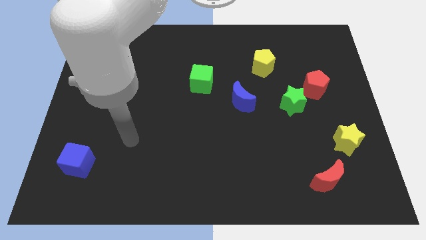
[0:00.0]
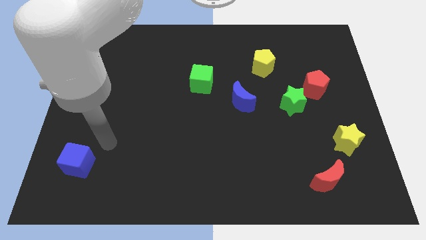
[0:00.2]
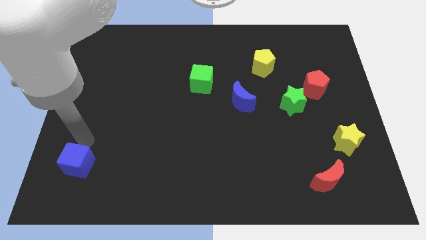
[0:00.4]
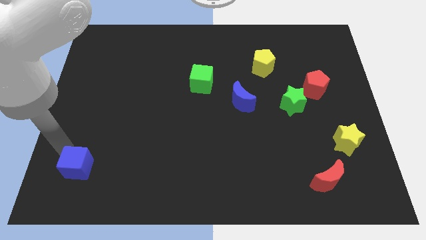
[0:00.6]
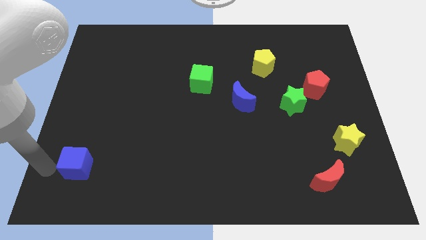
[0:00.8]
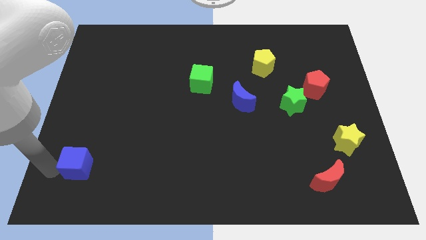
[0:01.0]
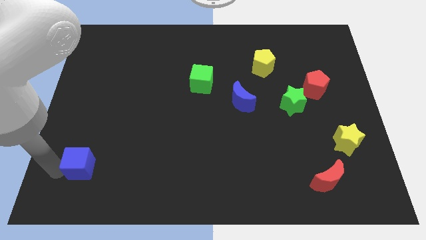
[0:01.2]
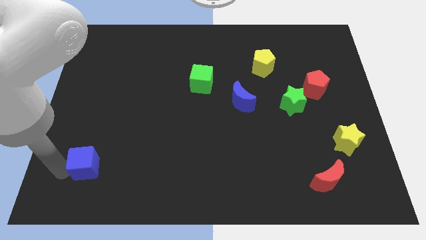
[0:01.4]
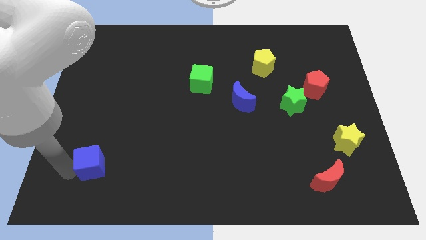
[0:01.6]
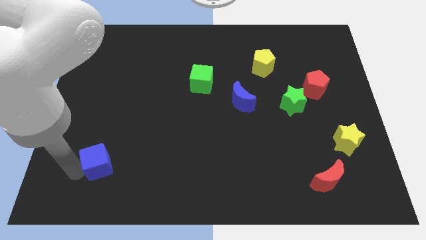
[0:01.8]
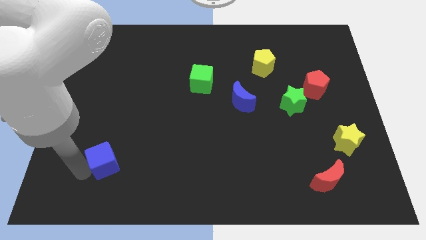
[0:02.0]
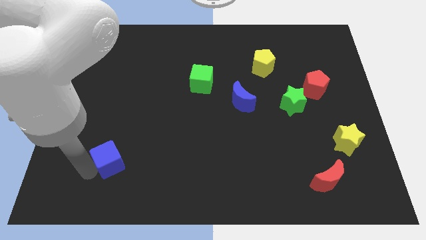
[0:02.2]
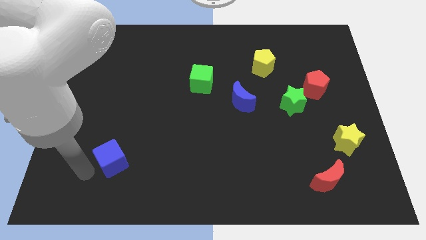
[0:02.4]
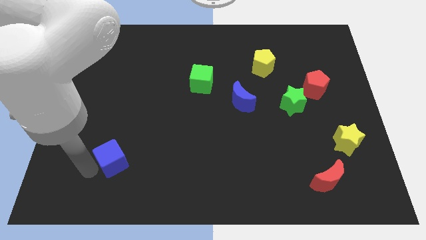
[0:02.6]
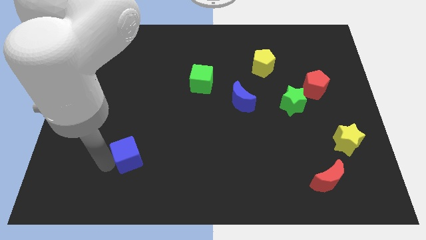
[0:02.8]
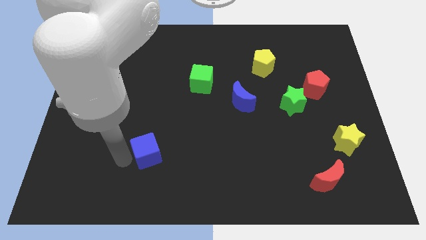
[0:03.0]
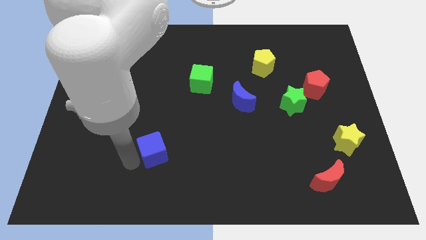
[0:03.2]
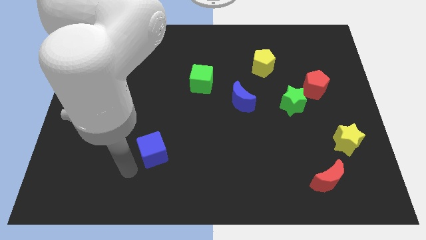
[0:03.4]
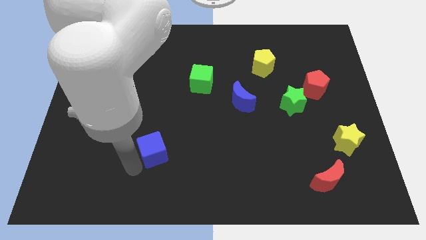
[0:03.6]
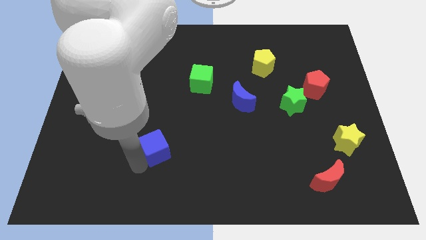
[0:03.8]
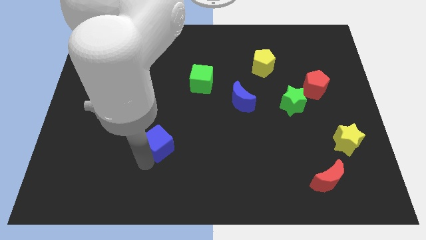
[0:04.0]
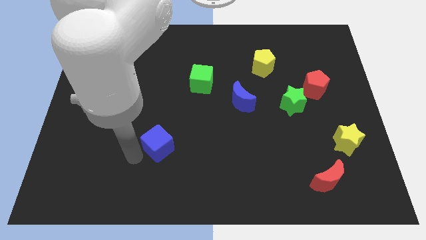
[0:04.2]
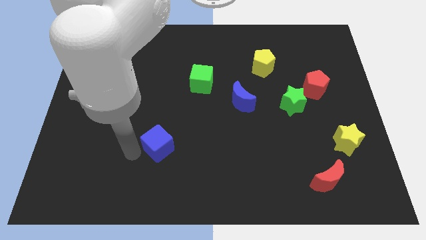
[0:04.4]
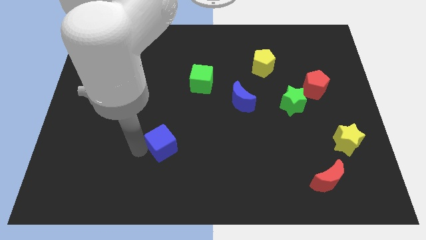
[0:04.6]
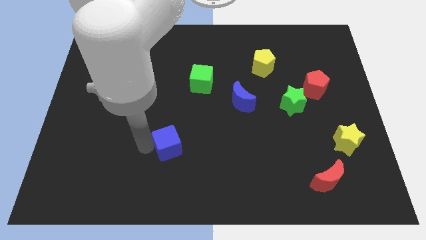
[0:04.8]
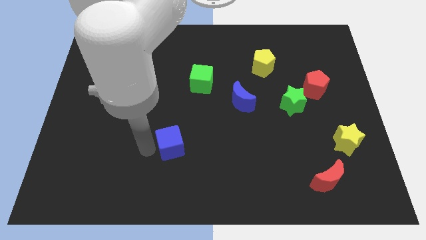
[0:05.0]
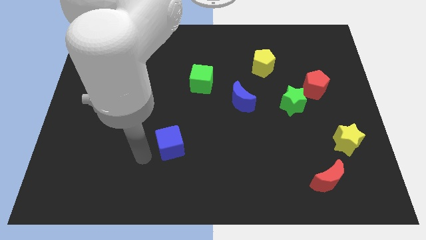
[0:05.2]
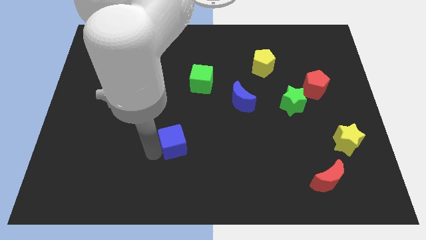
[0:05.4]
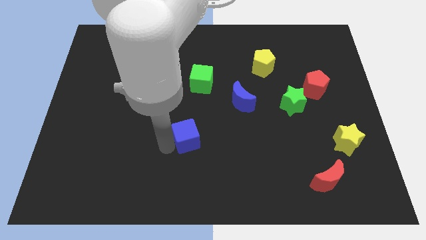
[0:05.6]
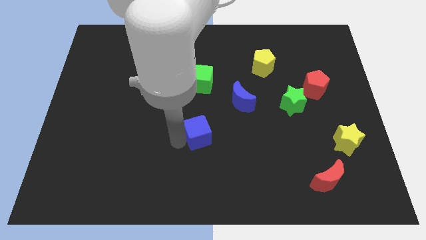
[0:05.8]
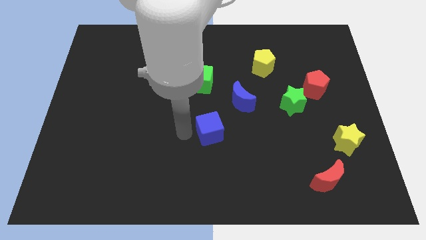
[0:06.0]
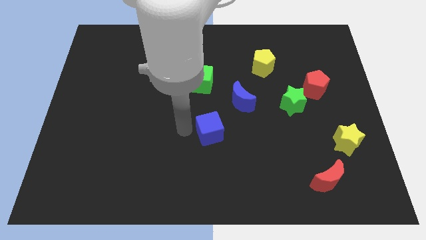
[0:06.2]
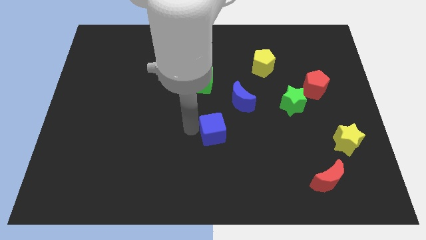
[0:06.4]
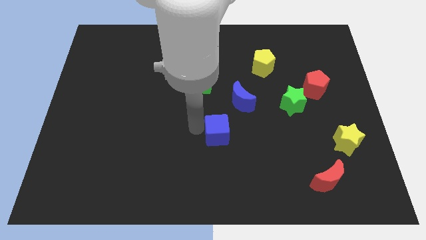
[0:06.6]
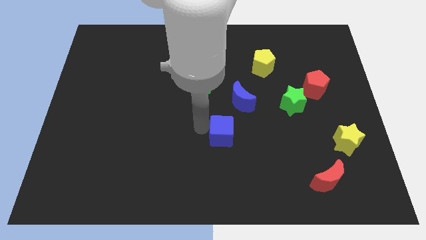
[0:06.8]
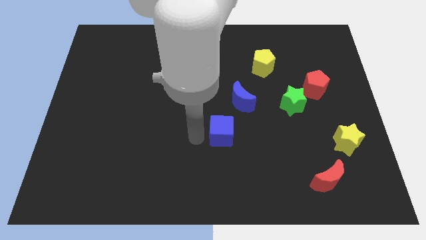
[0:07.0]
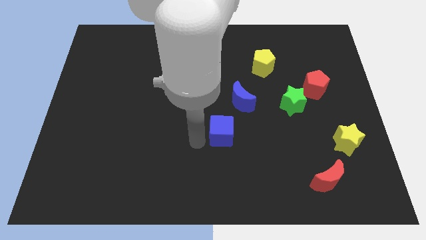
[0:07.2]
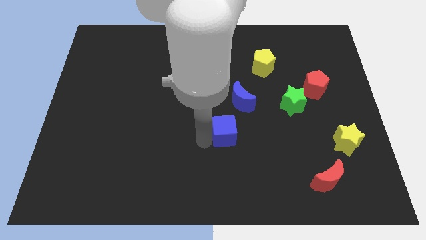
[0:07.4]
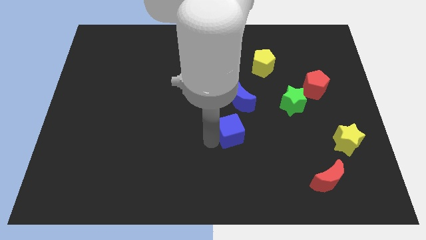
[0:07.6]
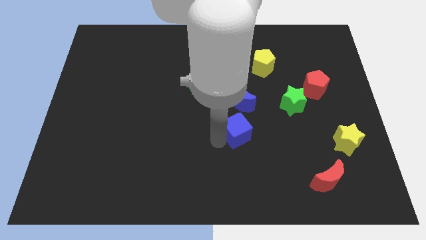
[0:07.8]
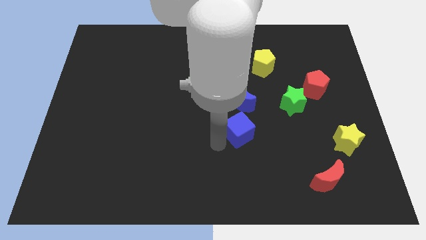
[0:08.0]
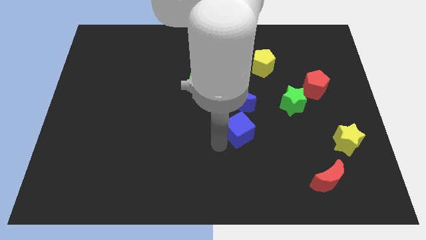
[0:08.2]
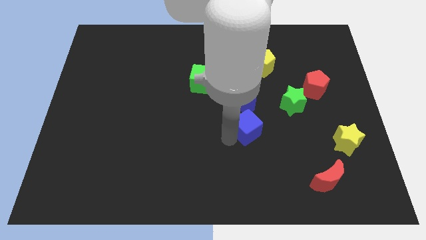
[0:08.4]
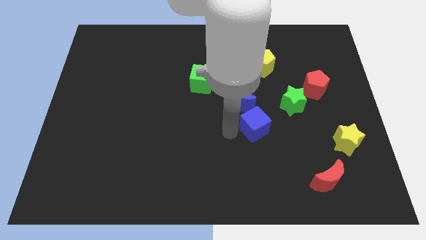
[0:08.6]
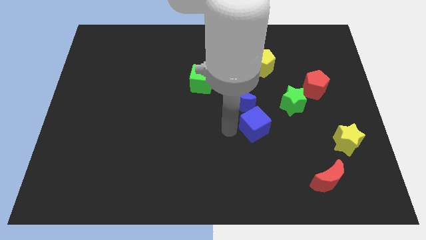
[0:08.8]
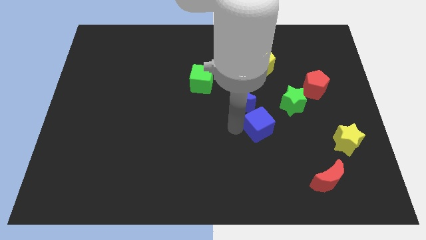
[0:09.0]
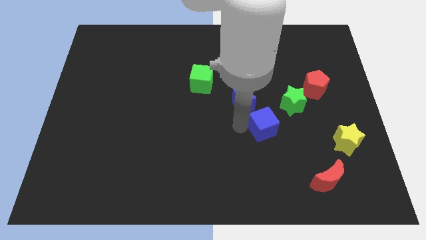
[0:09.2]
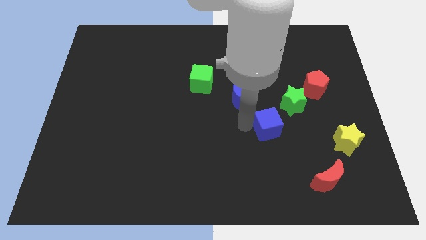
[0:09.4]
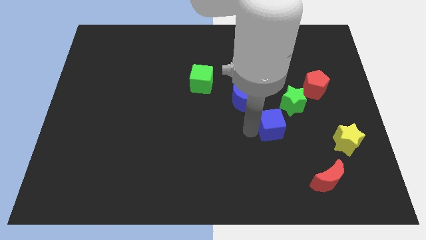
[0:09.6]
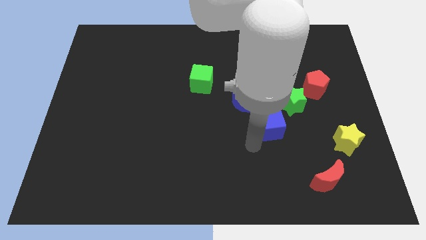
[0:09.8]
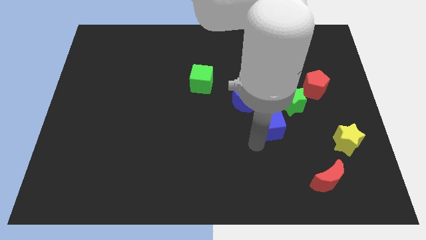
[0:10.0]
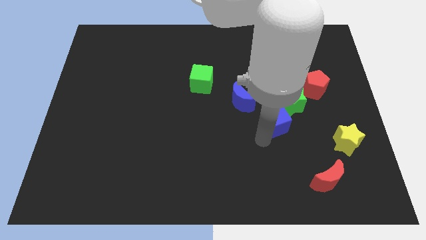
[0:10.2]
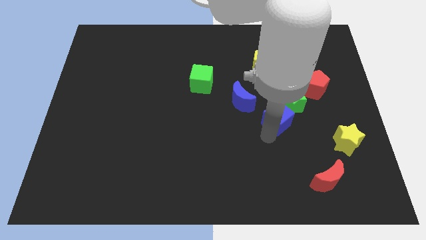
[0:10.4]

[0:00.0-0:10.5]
push the blue cube close to the green star

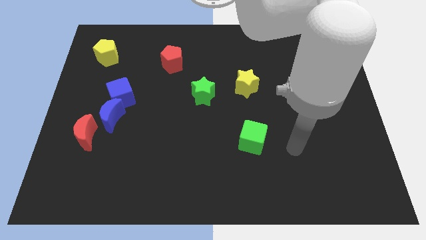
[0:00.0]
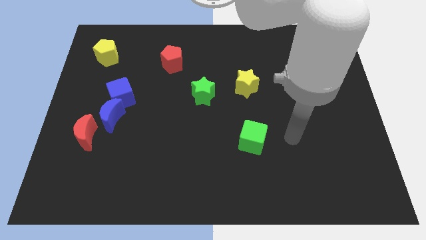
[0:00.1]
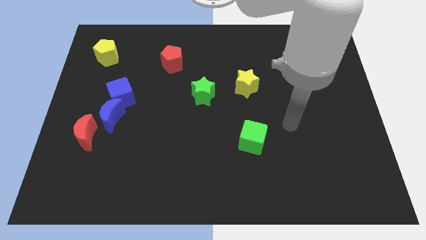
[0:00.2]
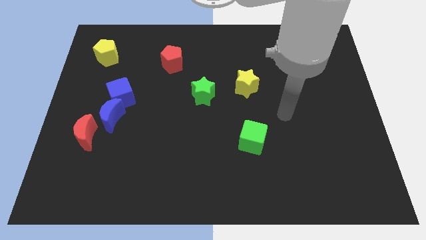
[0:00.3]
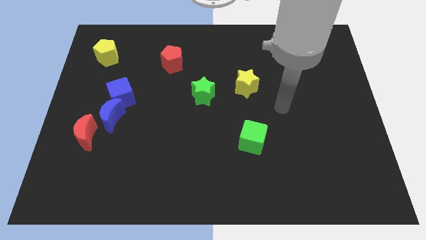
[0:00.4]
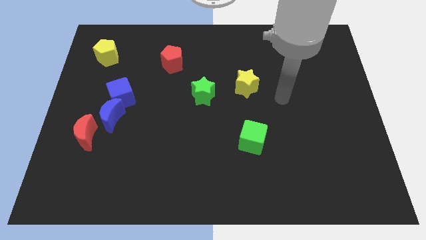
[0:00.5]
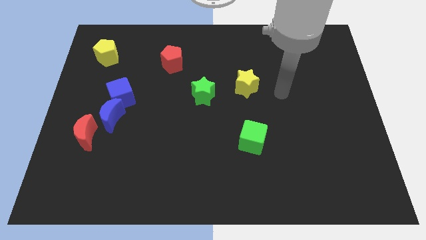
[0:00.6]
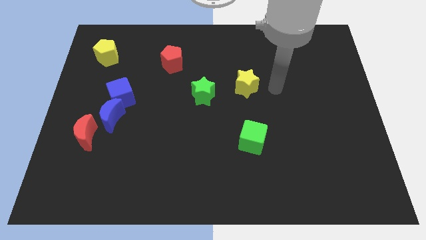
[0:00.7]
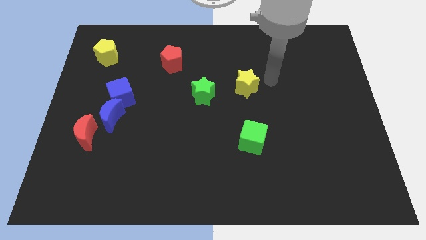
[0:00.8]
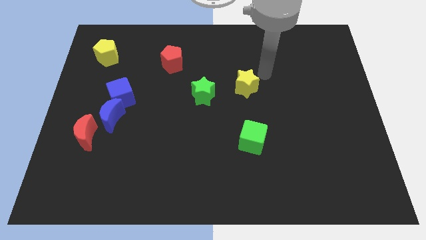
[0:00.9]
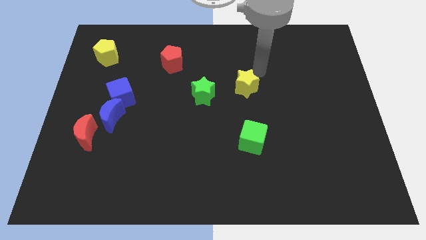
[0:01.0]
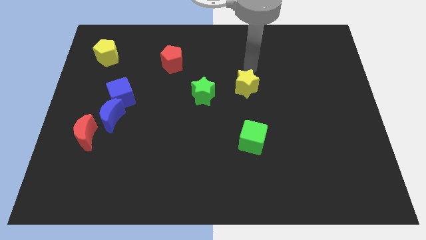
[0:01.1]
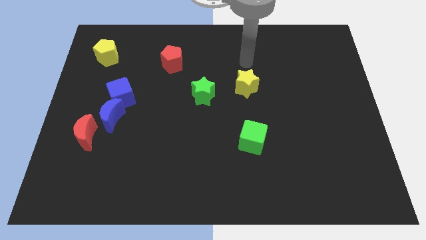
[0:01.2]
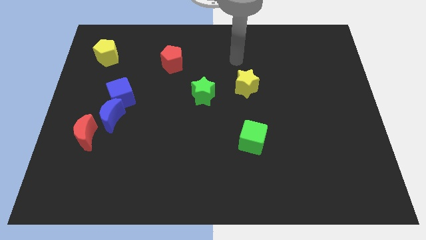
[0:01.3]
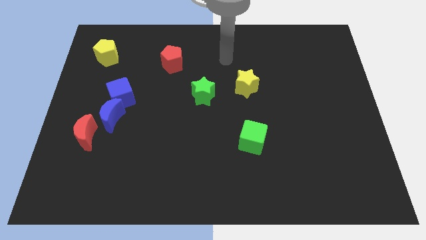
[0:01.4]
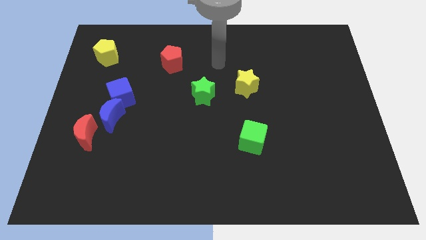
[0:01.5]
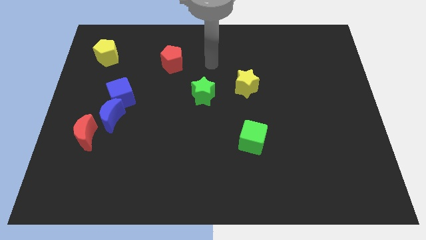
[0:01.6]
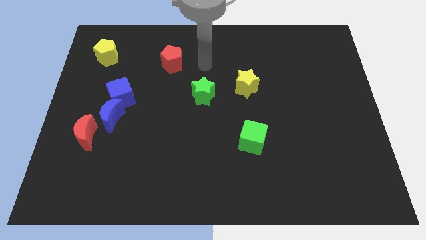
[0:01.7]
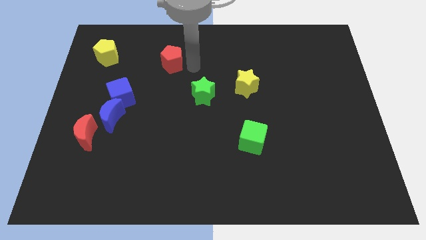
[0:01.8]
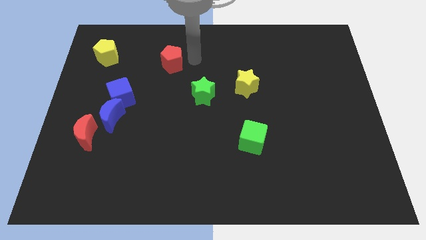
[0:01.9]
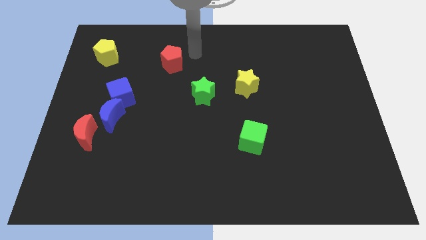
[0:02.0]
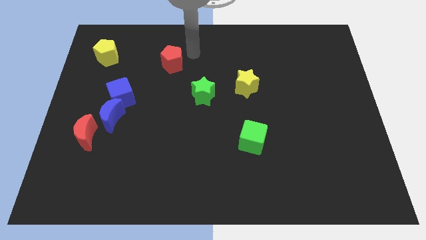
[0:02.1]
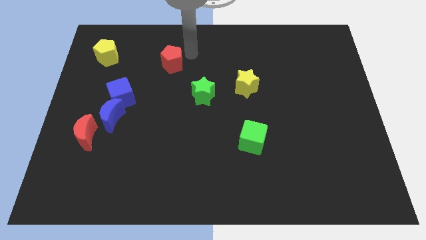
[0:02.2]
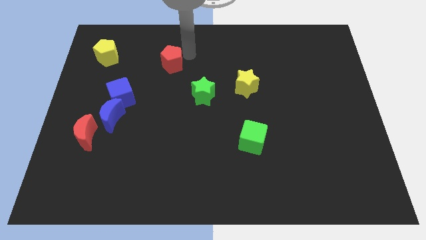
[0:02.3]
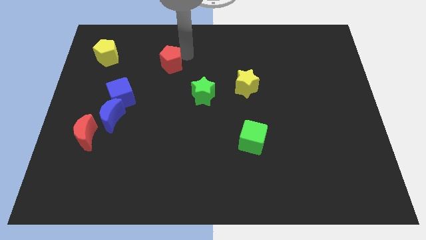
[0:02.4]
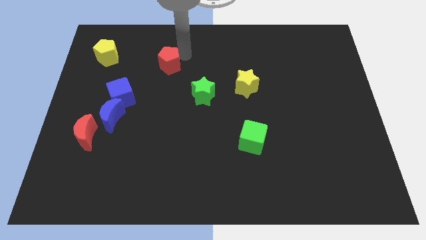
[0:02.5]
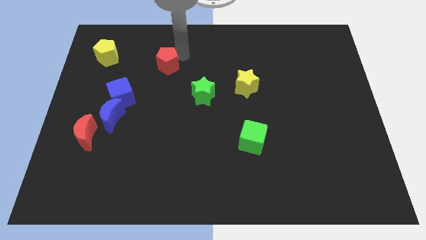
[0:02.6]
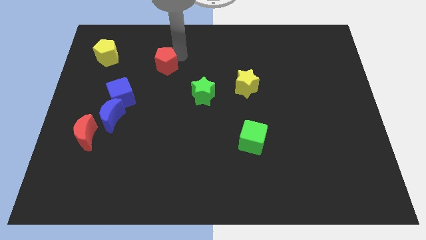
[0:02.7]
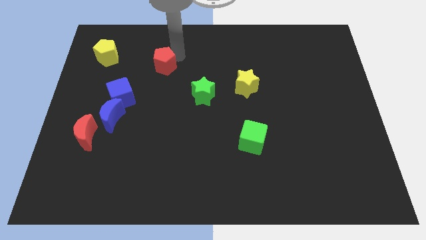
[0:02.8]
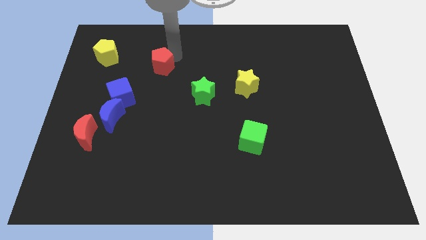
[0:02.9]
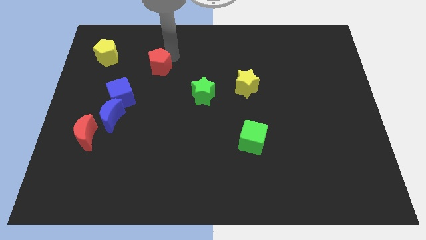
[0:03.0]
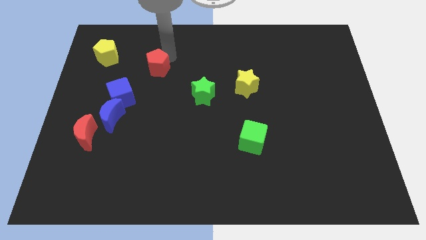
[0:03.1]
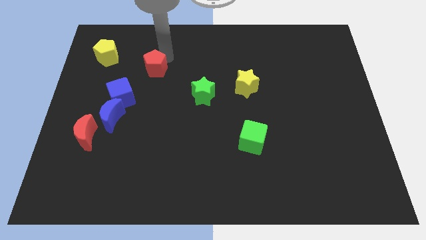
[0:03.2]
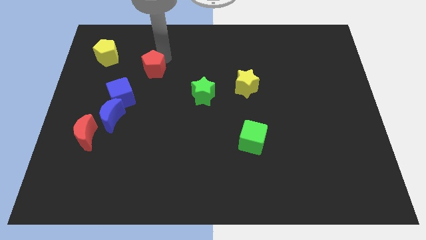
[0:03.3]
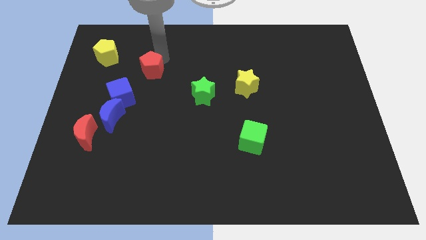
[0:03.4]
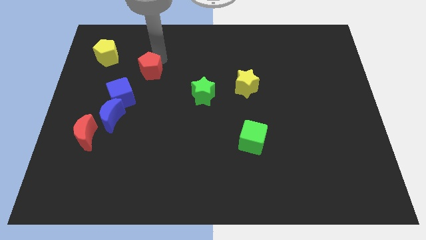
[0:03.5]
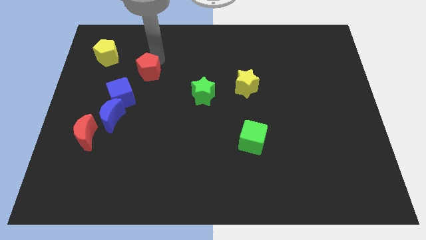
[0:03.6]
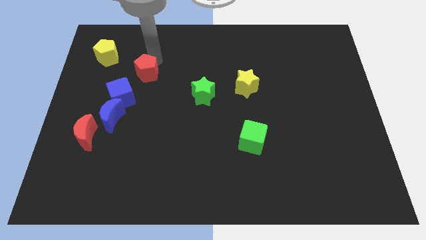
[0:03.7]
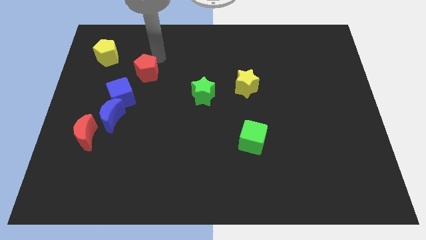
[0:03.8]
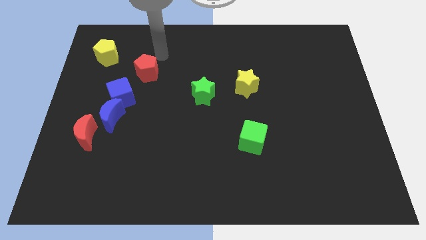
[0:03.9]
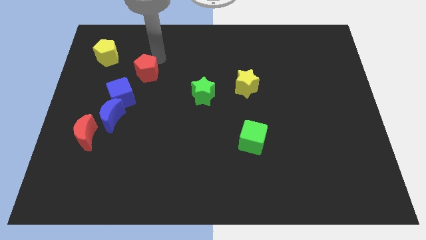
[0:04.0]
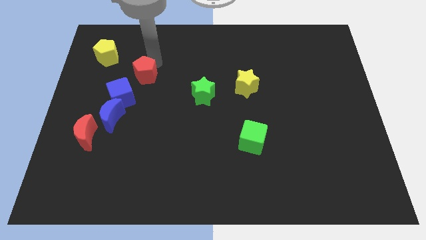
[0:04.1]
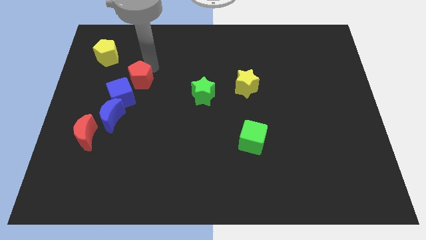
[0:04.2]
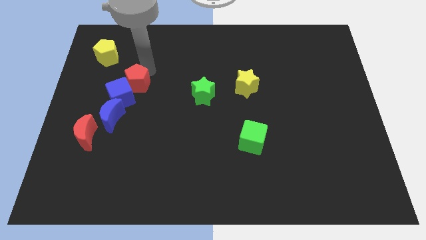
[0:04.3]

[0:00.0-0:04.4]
move the red pentagon next to the blue cube
